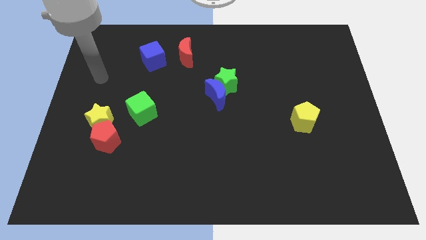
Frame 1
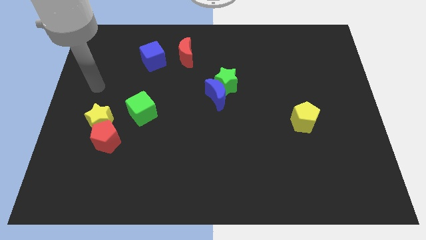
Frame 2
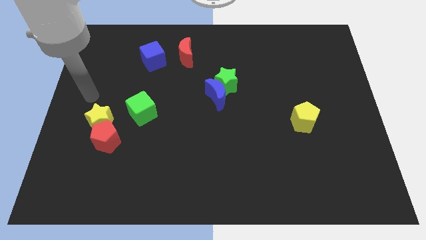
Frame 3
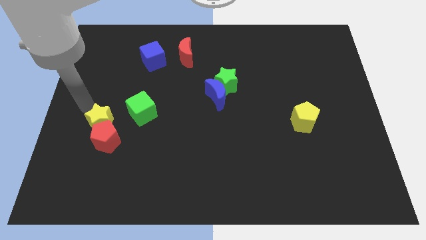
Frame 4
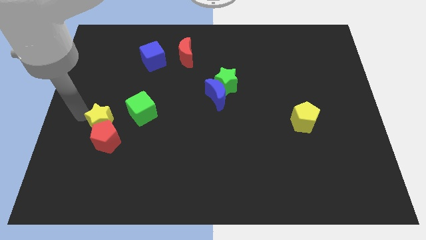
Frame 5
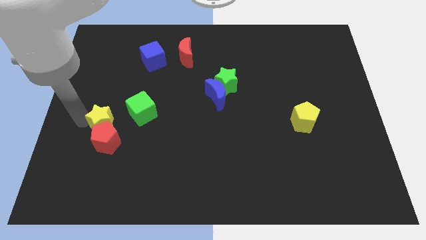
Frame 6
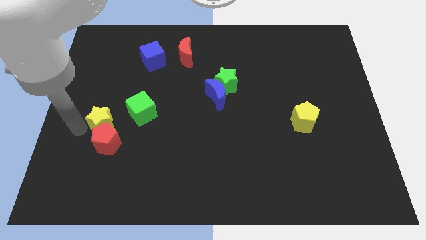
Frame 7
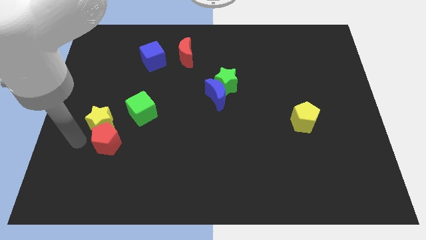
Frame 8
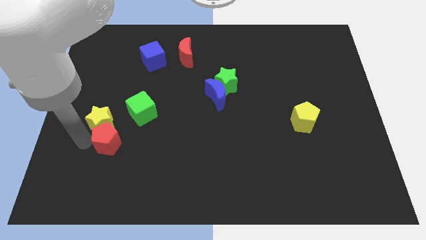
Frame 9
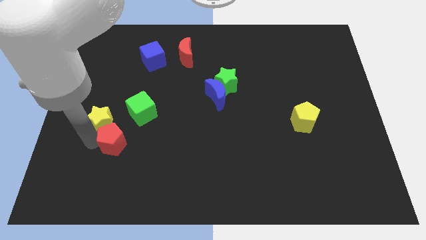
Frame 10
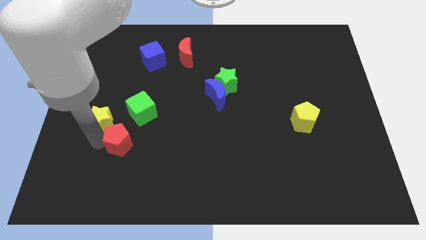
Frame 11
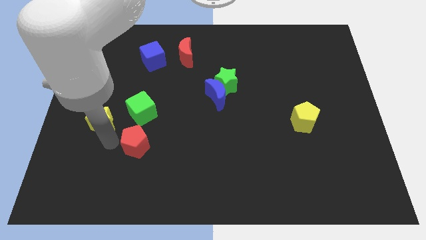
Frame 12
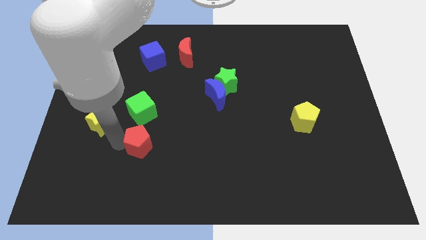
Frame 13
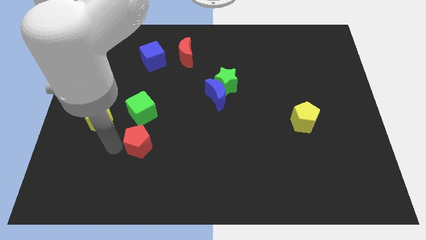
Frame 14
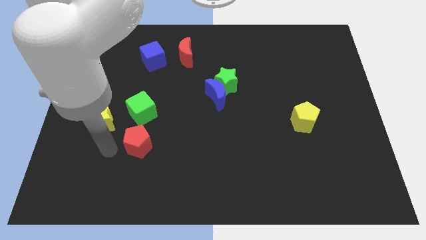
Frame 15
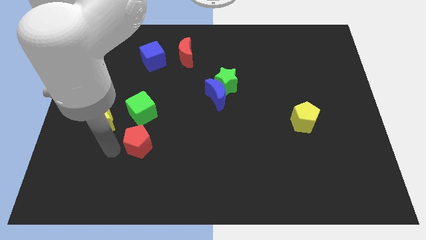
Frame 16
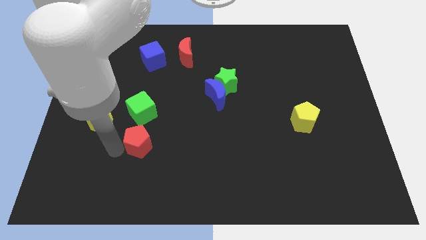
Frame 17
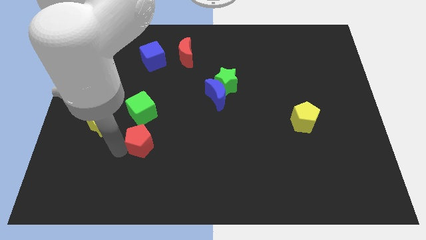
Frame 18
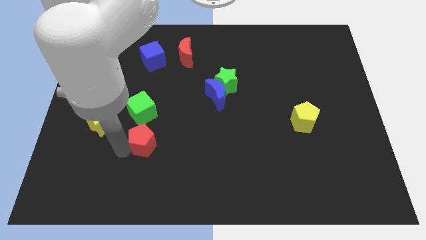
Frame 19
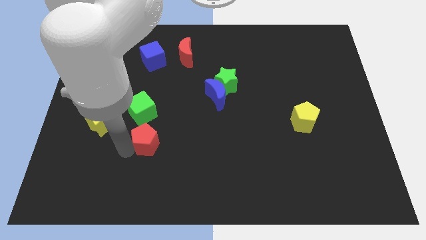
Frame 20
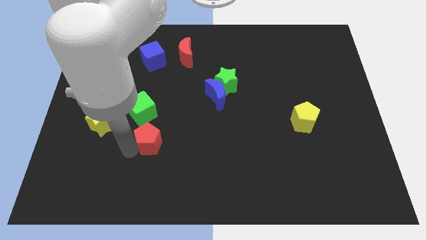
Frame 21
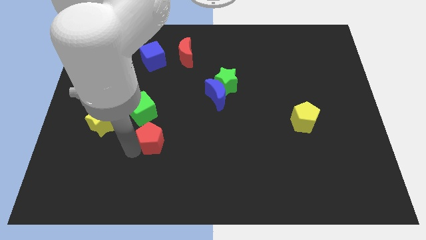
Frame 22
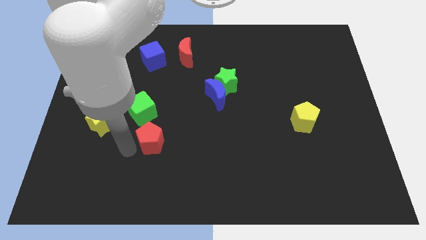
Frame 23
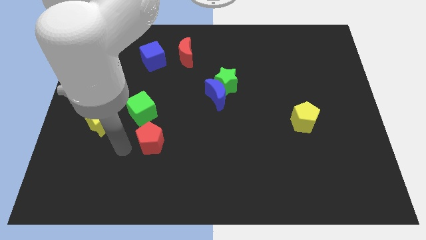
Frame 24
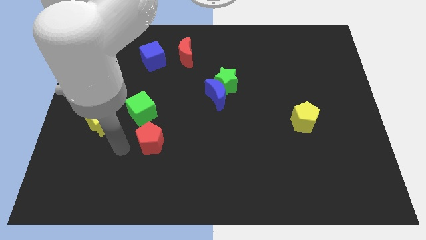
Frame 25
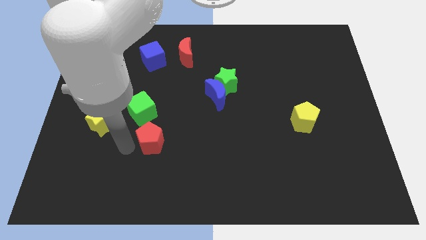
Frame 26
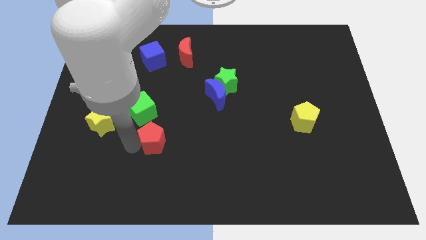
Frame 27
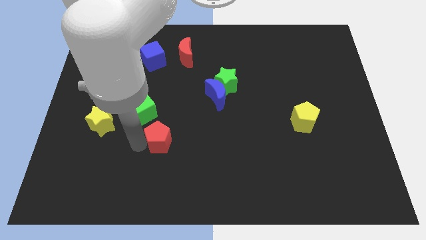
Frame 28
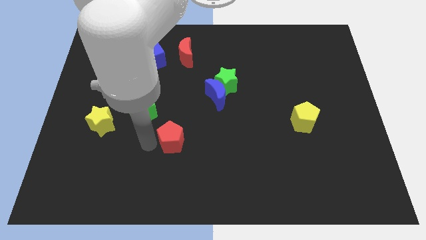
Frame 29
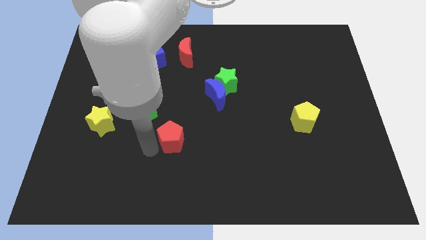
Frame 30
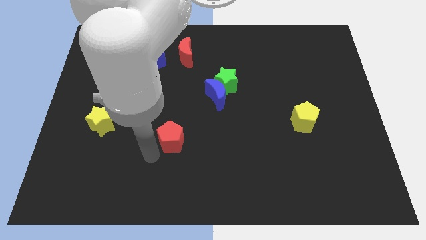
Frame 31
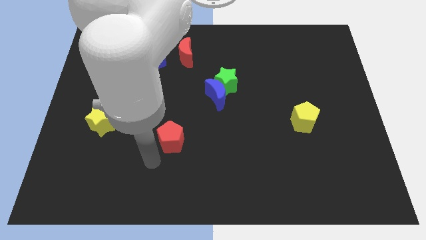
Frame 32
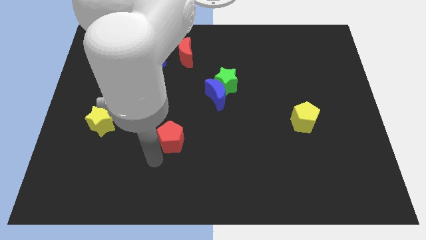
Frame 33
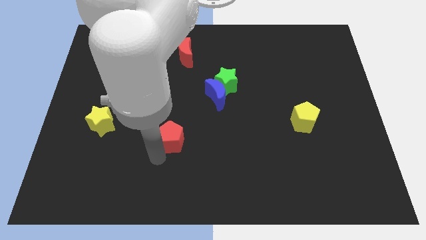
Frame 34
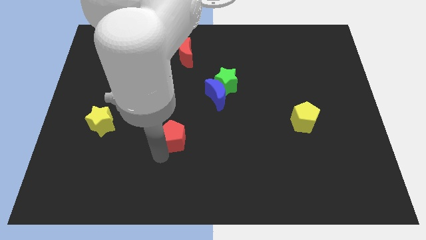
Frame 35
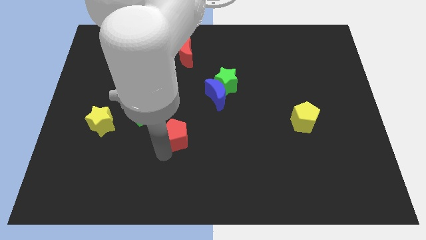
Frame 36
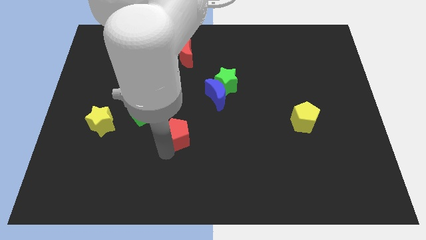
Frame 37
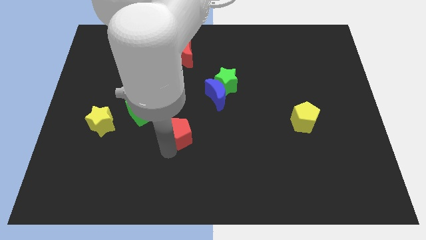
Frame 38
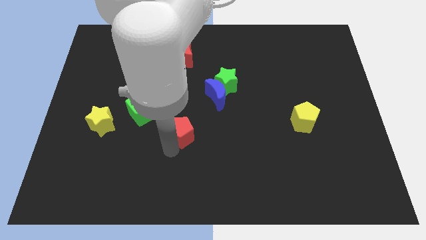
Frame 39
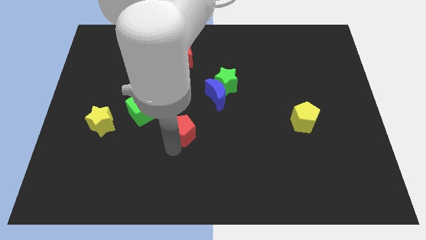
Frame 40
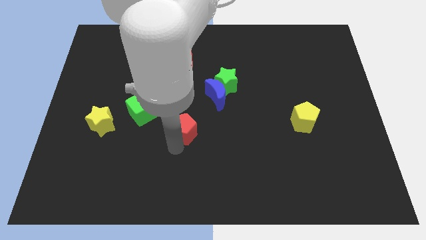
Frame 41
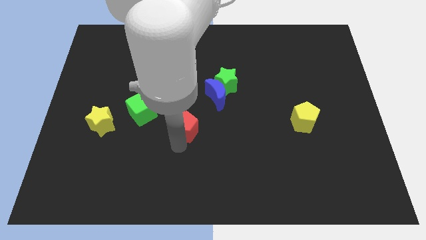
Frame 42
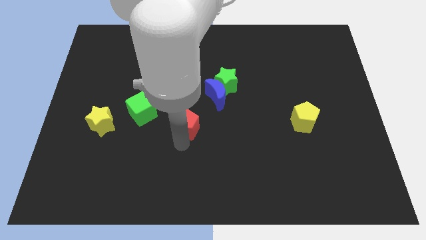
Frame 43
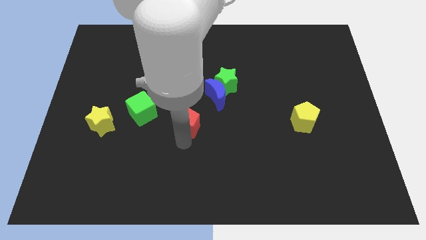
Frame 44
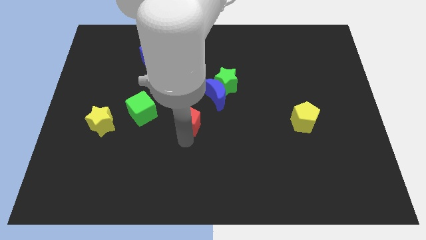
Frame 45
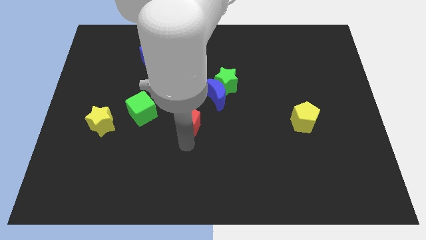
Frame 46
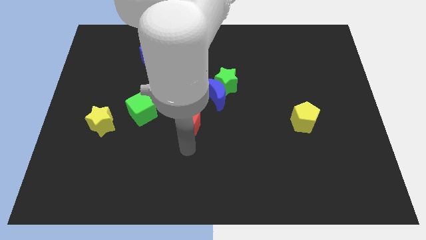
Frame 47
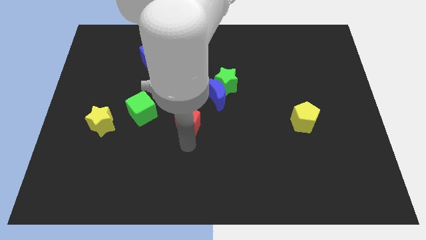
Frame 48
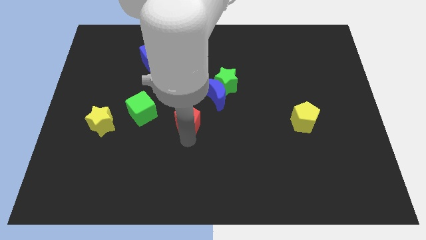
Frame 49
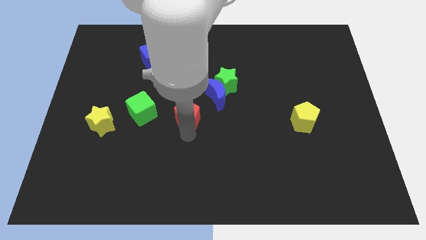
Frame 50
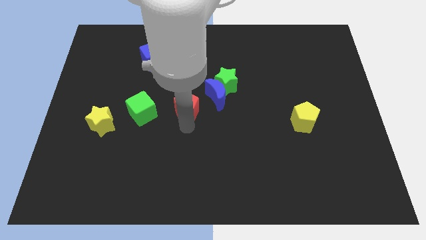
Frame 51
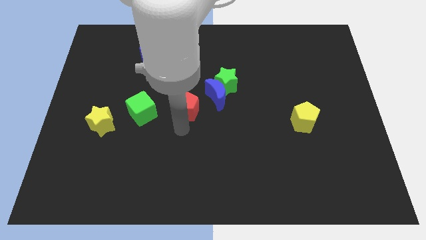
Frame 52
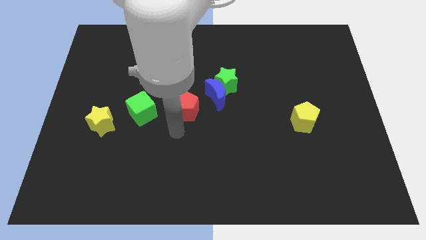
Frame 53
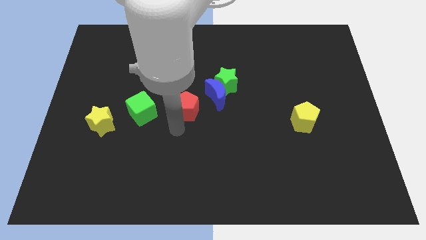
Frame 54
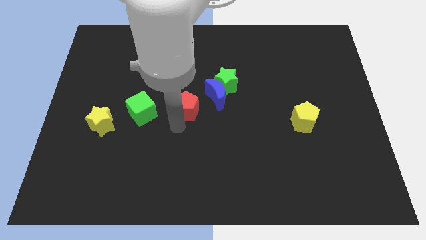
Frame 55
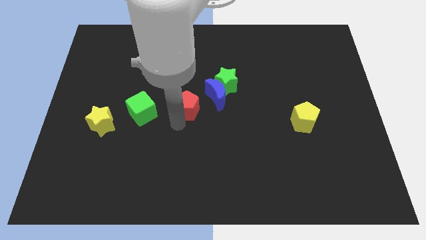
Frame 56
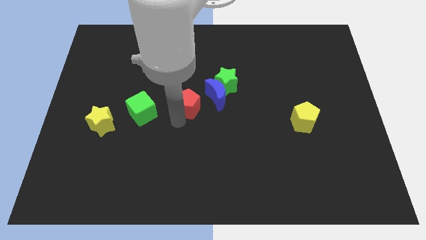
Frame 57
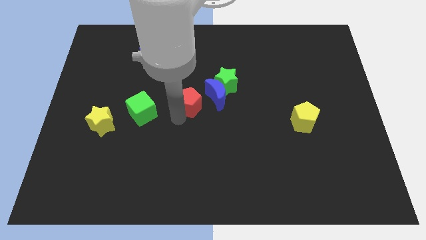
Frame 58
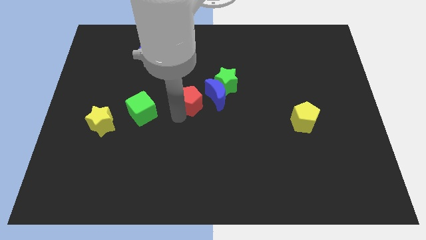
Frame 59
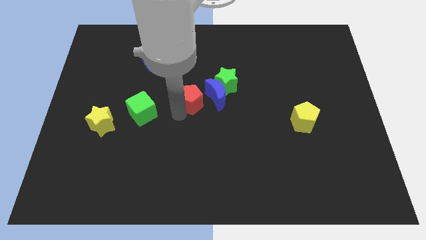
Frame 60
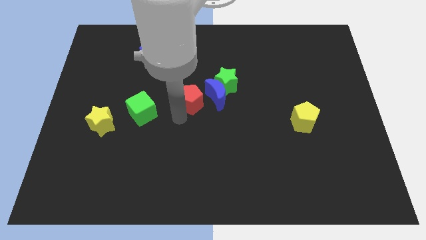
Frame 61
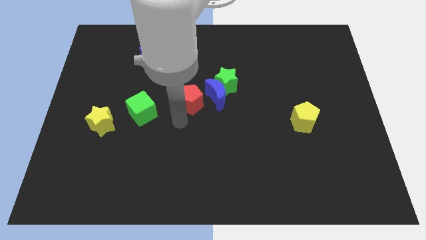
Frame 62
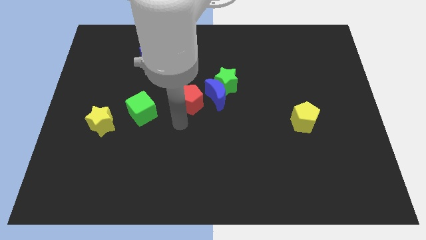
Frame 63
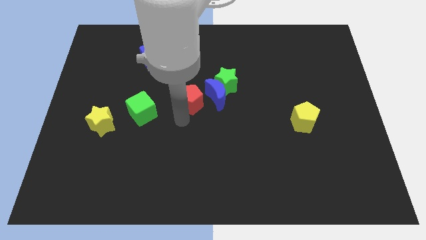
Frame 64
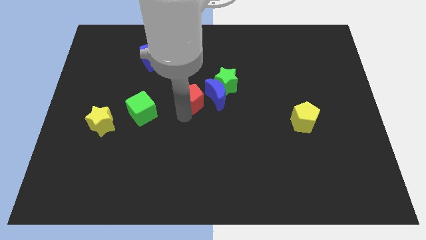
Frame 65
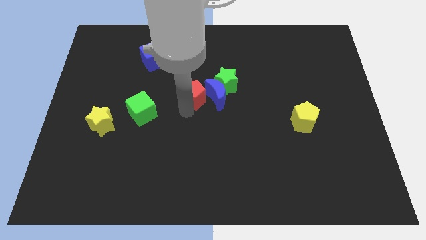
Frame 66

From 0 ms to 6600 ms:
push the red pentagon up and to the right

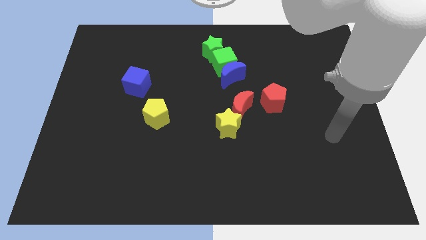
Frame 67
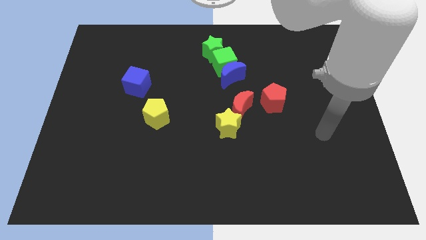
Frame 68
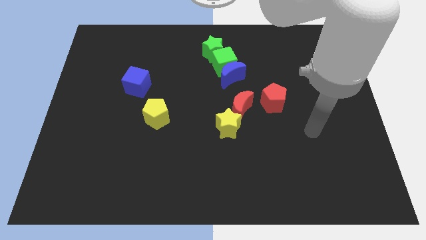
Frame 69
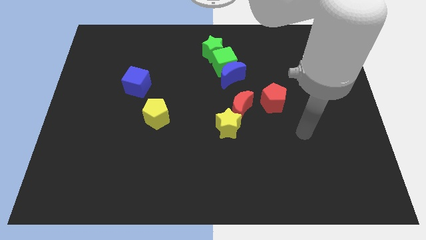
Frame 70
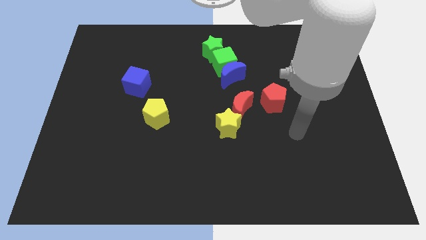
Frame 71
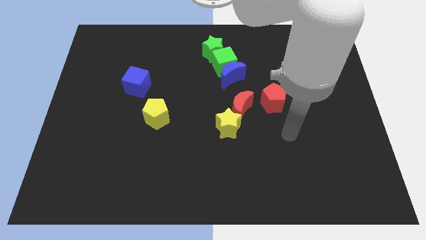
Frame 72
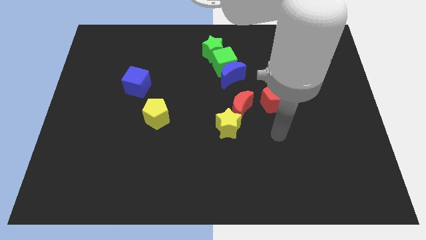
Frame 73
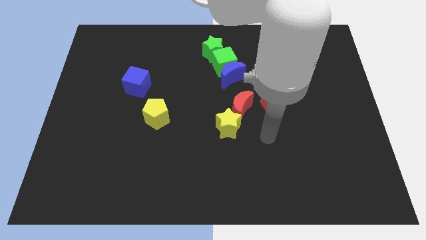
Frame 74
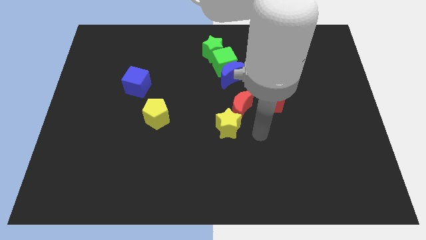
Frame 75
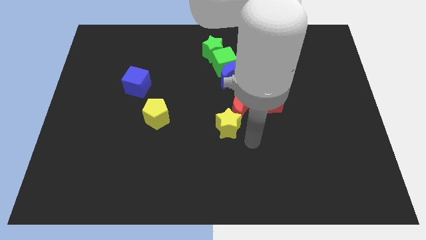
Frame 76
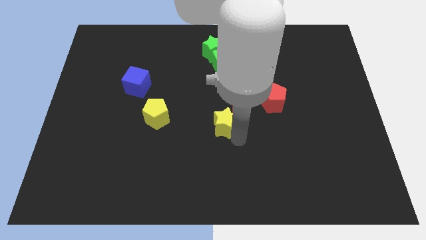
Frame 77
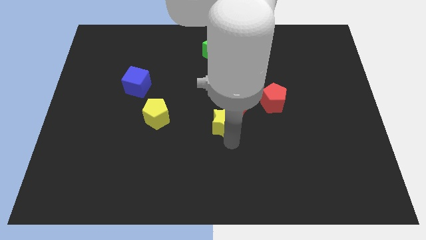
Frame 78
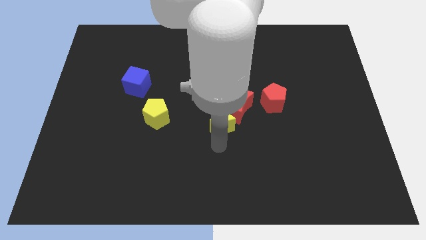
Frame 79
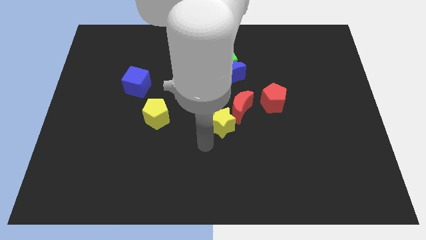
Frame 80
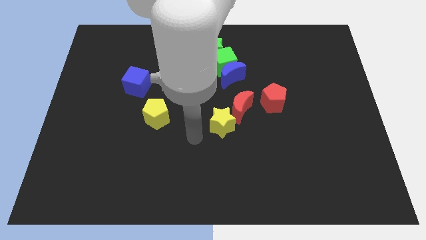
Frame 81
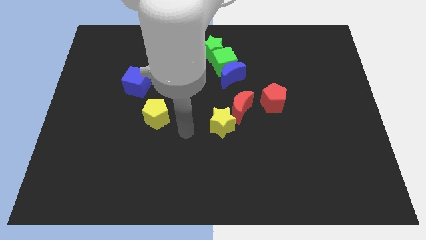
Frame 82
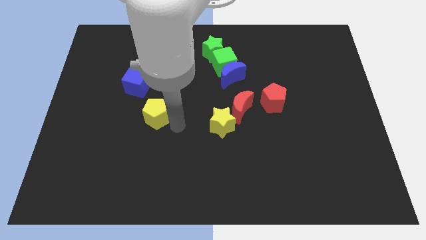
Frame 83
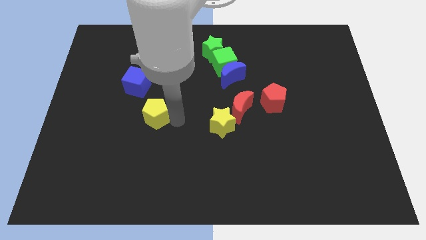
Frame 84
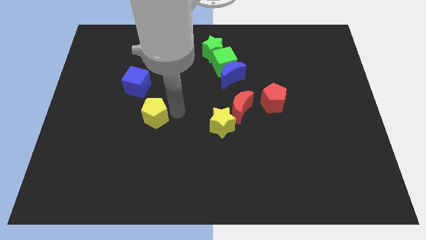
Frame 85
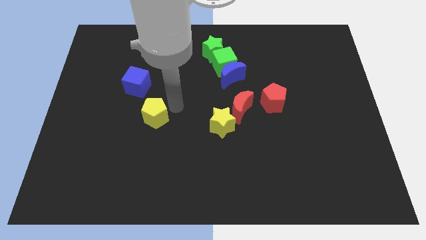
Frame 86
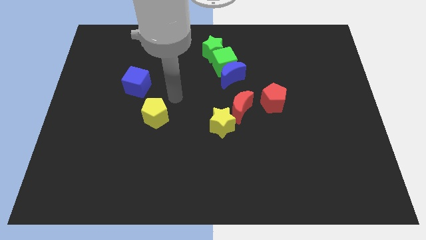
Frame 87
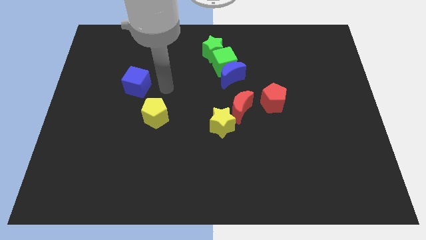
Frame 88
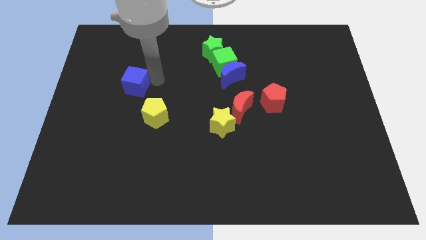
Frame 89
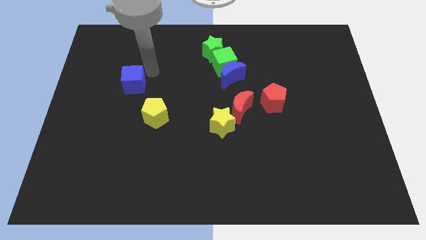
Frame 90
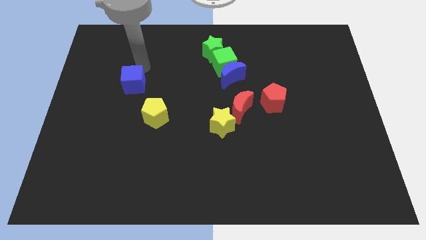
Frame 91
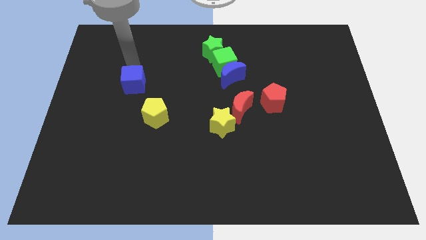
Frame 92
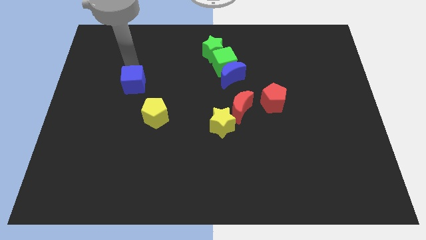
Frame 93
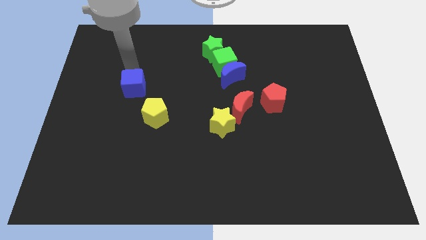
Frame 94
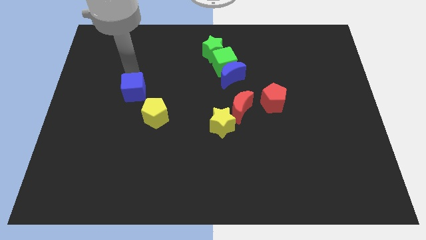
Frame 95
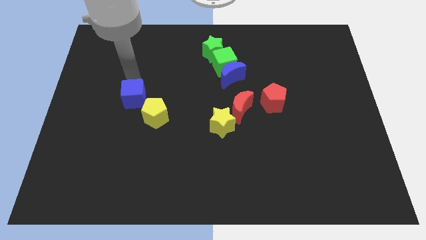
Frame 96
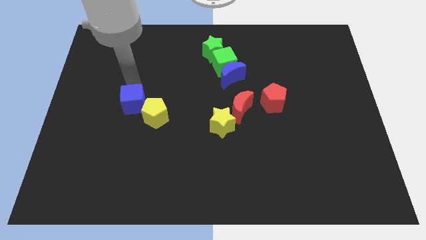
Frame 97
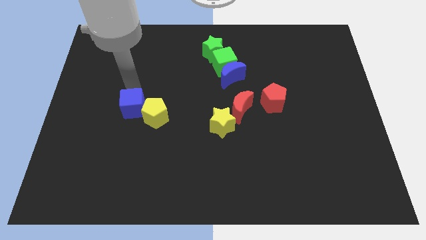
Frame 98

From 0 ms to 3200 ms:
slightly push the blue cube down
